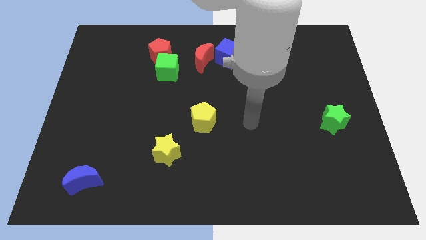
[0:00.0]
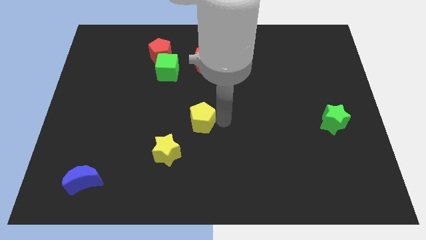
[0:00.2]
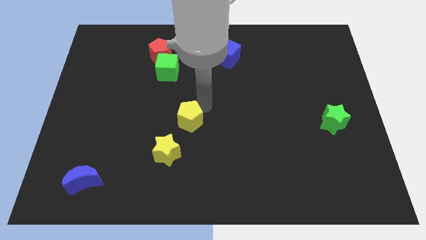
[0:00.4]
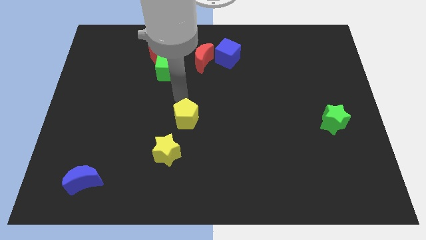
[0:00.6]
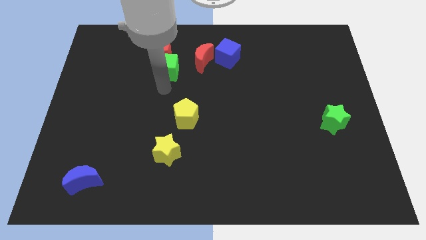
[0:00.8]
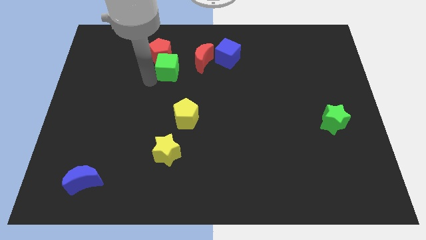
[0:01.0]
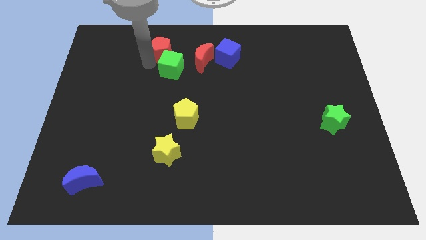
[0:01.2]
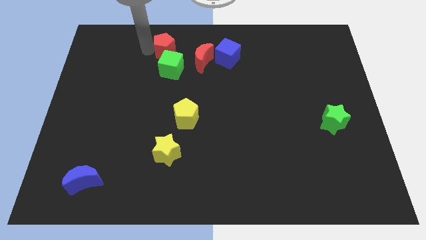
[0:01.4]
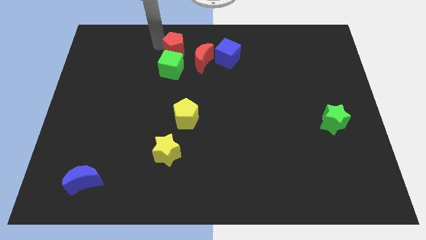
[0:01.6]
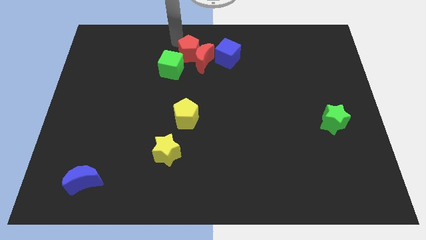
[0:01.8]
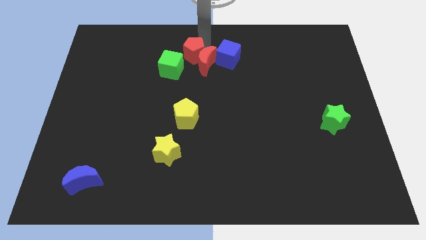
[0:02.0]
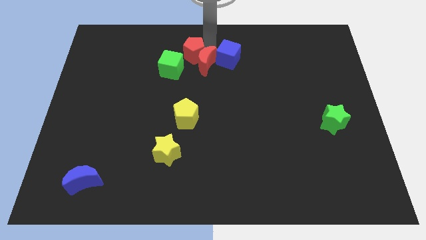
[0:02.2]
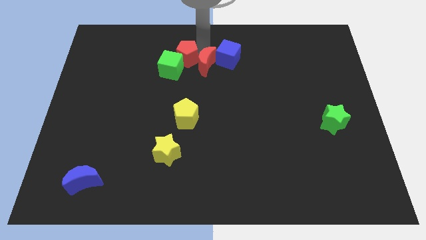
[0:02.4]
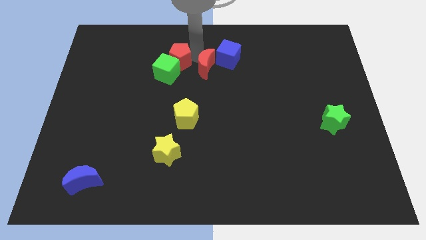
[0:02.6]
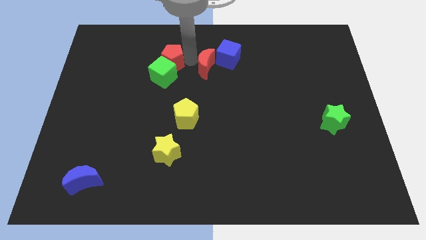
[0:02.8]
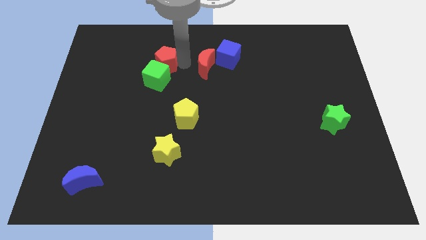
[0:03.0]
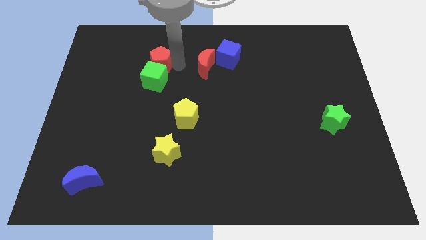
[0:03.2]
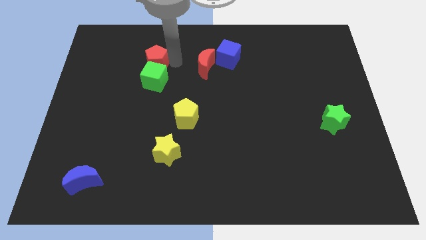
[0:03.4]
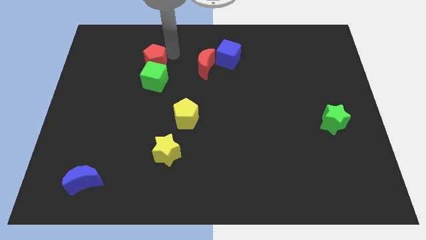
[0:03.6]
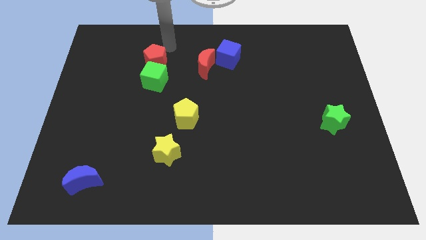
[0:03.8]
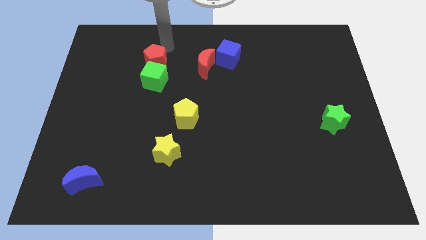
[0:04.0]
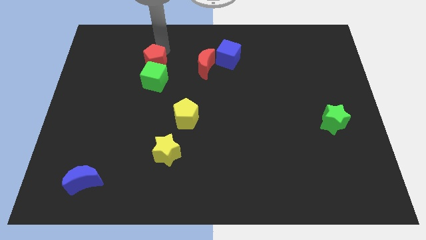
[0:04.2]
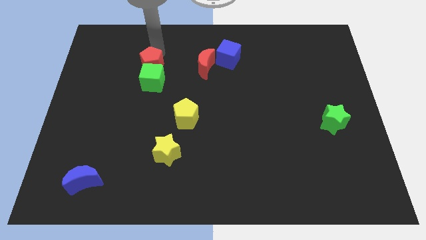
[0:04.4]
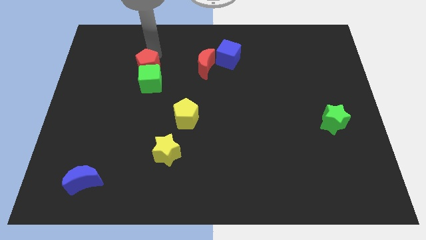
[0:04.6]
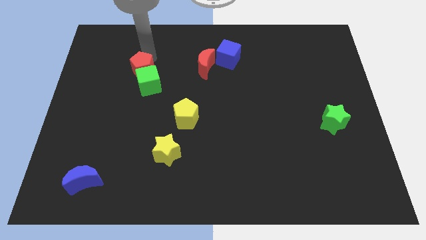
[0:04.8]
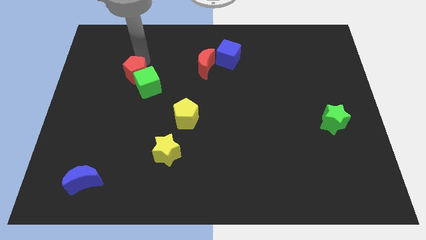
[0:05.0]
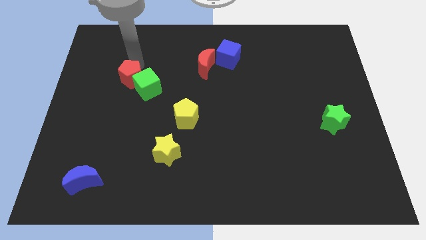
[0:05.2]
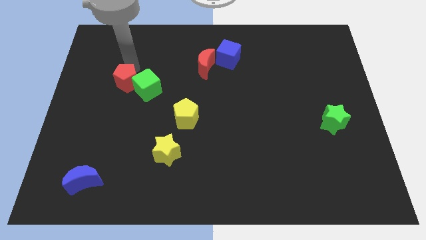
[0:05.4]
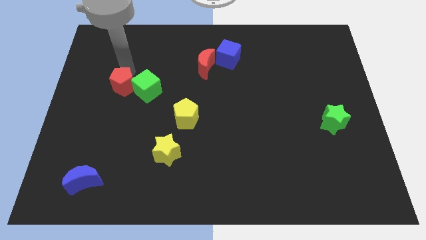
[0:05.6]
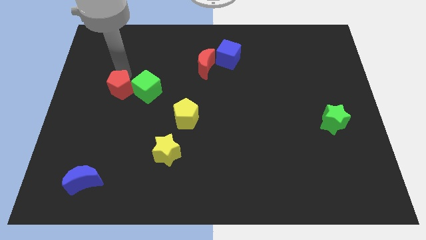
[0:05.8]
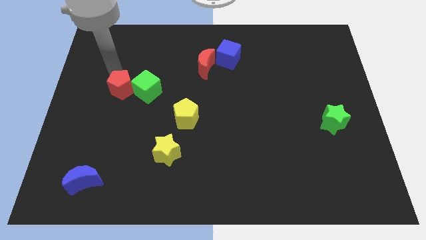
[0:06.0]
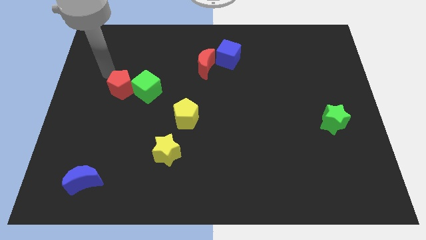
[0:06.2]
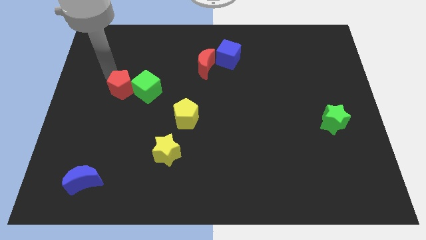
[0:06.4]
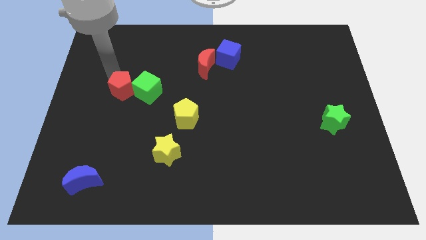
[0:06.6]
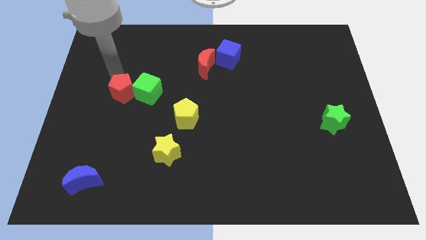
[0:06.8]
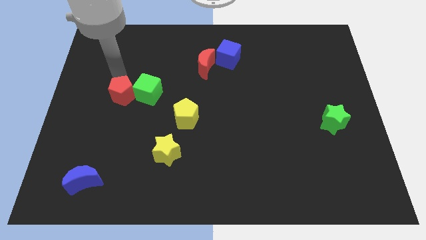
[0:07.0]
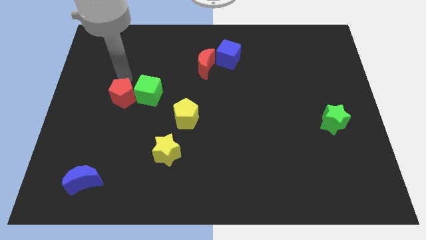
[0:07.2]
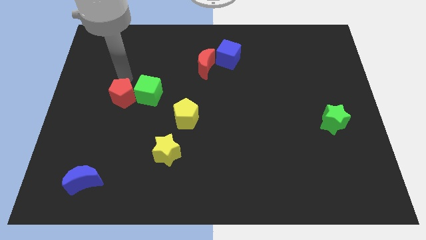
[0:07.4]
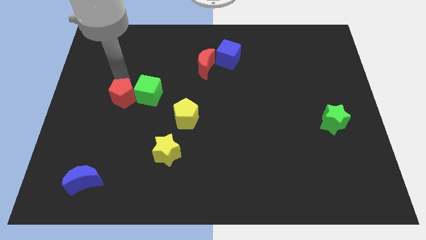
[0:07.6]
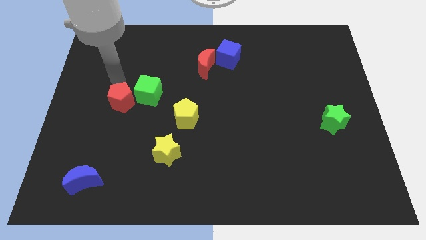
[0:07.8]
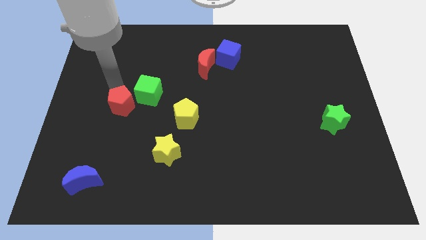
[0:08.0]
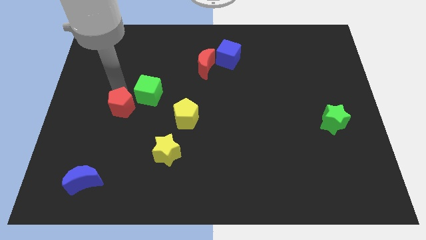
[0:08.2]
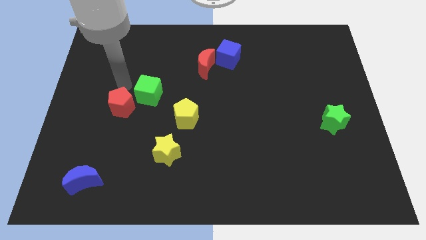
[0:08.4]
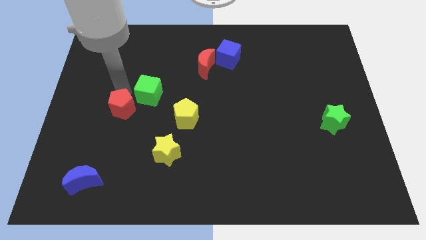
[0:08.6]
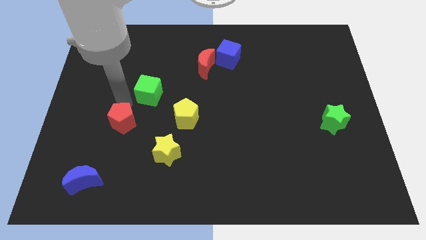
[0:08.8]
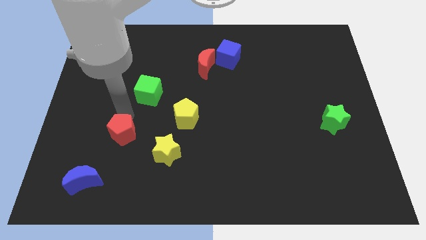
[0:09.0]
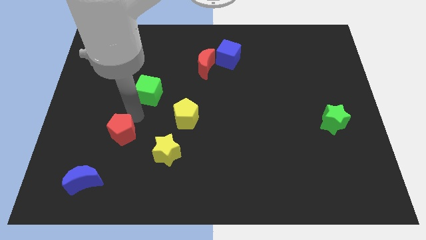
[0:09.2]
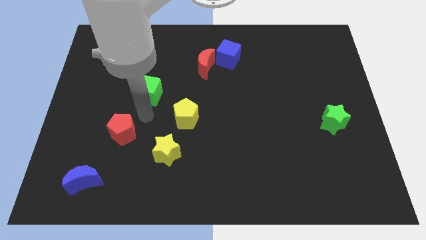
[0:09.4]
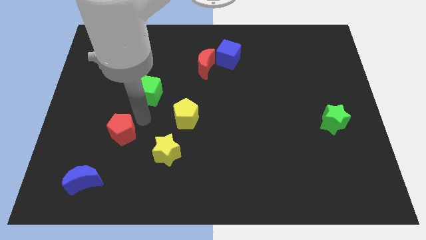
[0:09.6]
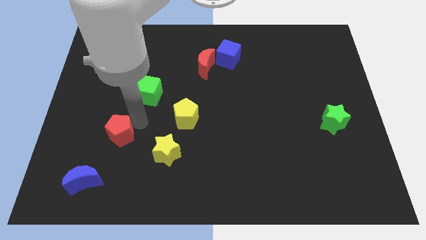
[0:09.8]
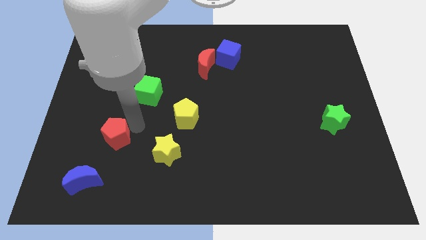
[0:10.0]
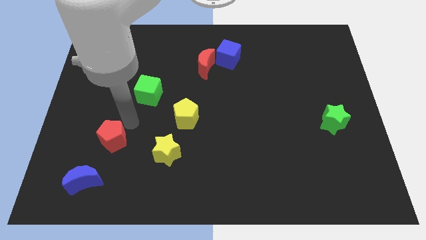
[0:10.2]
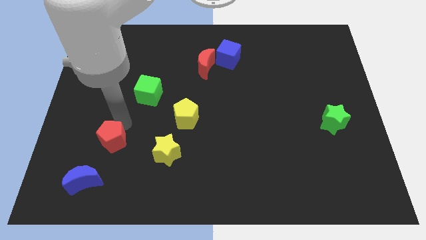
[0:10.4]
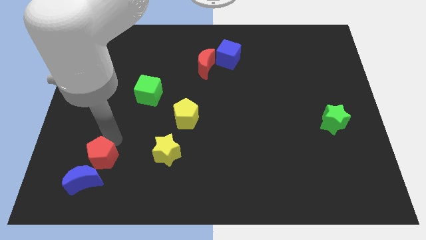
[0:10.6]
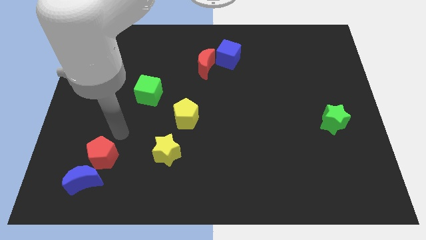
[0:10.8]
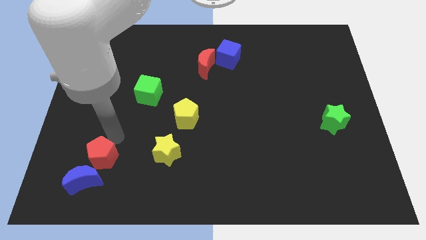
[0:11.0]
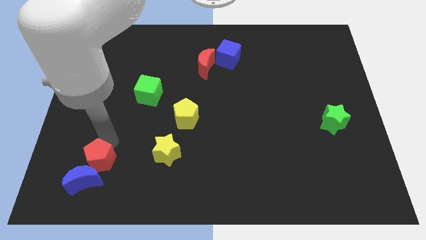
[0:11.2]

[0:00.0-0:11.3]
move the red pentagon to the blue moon

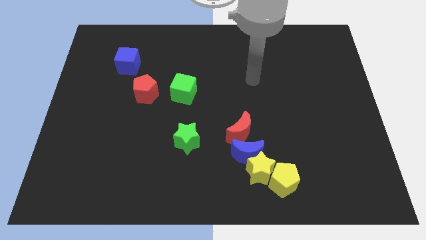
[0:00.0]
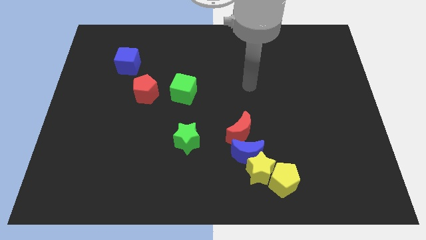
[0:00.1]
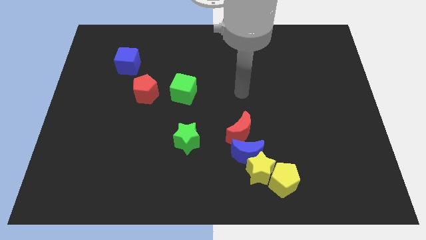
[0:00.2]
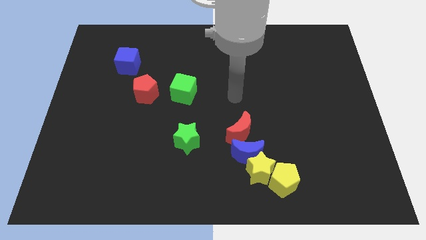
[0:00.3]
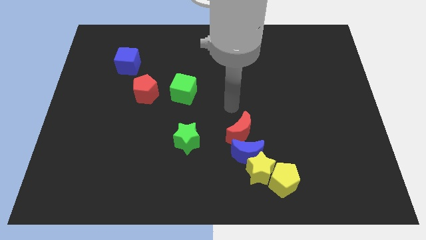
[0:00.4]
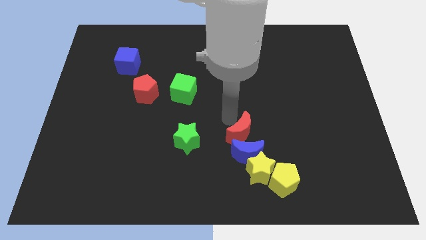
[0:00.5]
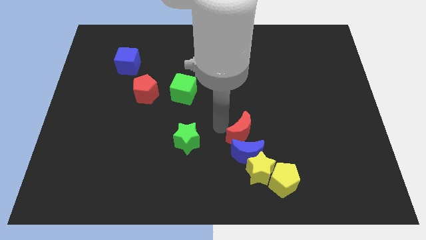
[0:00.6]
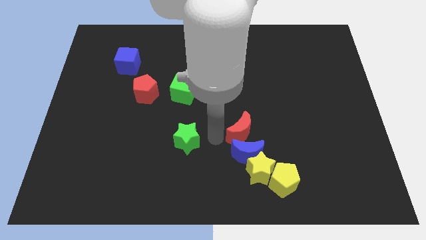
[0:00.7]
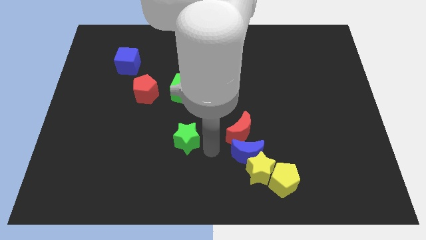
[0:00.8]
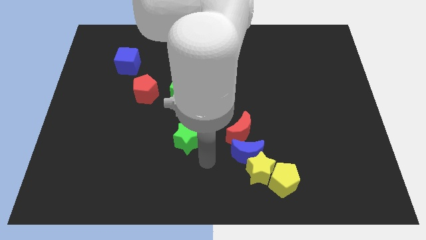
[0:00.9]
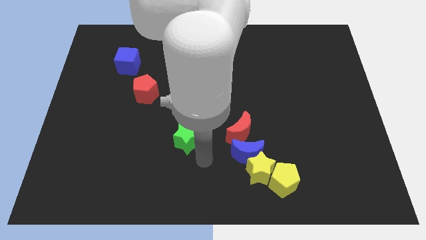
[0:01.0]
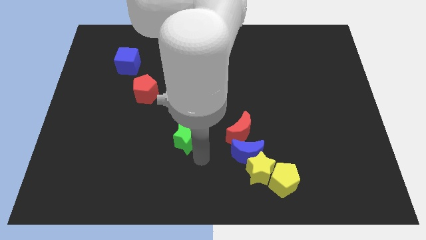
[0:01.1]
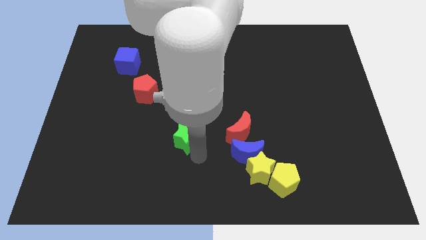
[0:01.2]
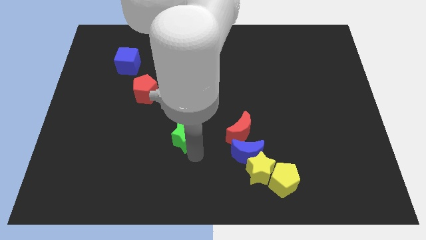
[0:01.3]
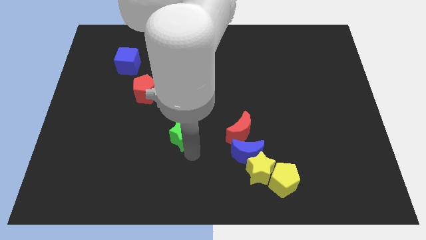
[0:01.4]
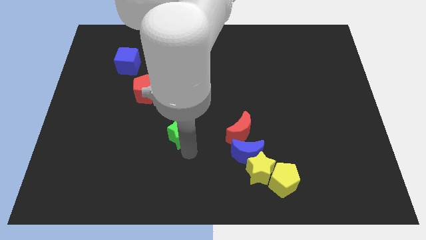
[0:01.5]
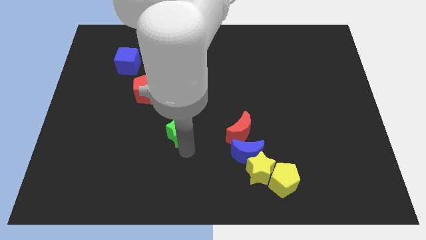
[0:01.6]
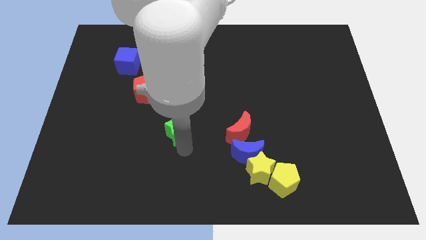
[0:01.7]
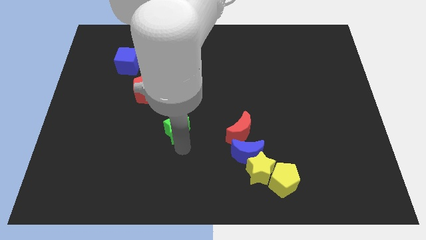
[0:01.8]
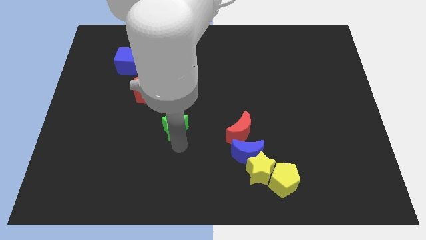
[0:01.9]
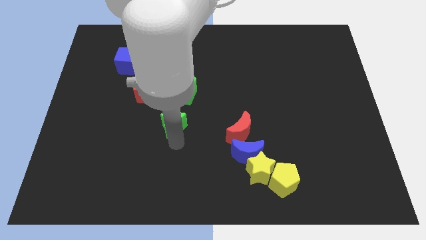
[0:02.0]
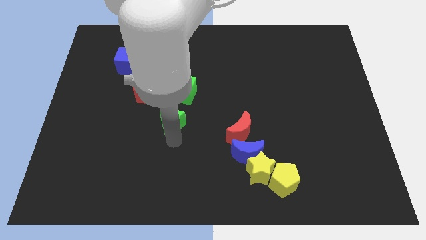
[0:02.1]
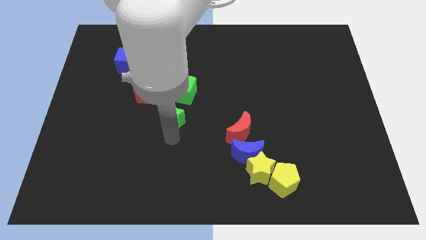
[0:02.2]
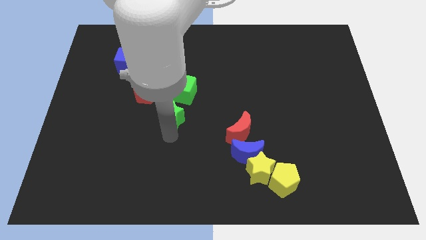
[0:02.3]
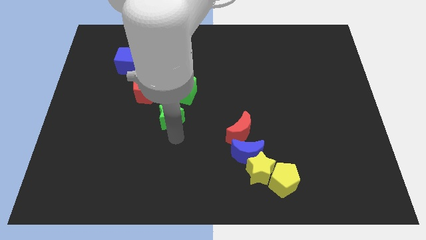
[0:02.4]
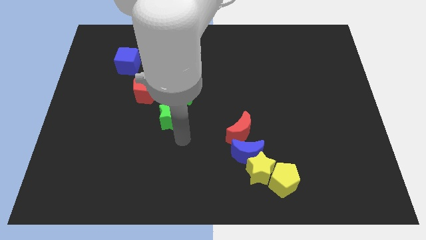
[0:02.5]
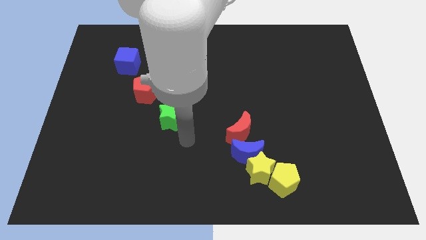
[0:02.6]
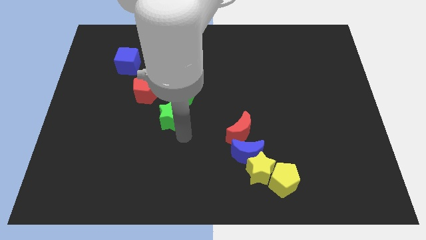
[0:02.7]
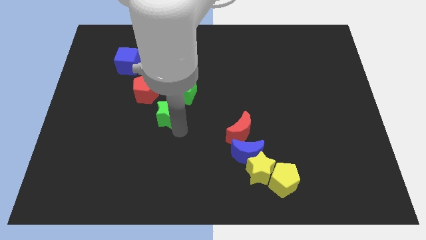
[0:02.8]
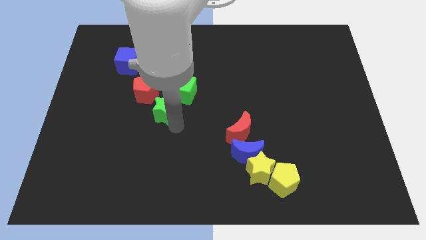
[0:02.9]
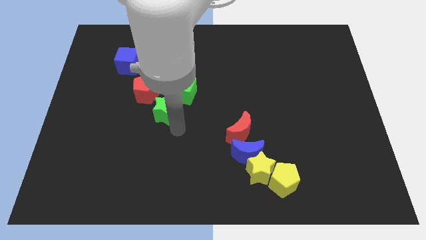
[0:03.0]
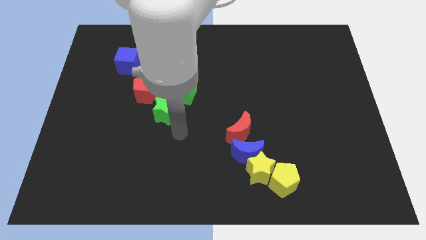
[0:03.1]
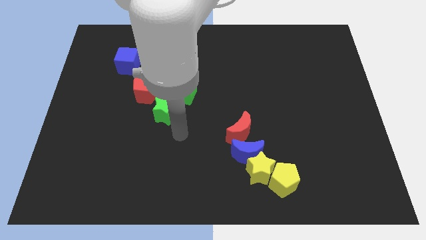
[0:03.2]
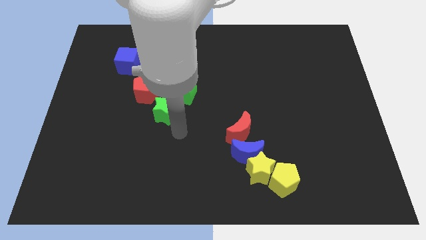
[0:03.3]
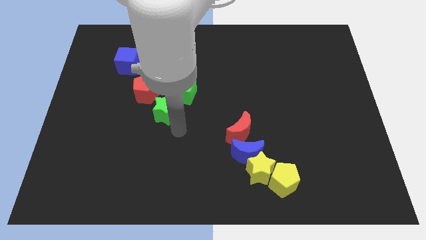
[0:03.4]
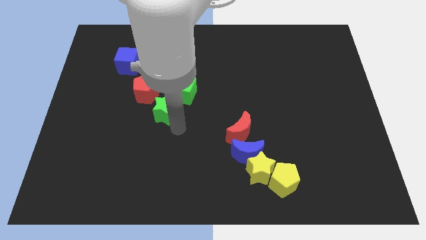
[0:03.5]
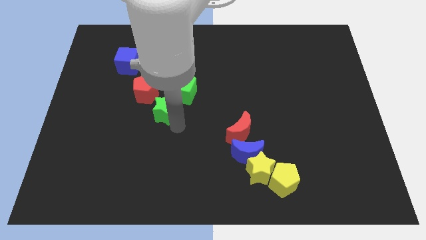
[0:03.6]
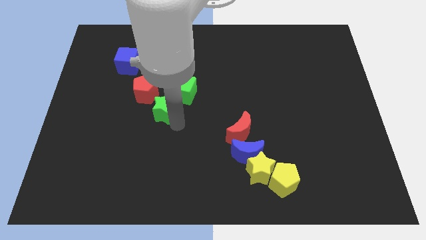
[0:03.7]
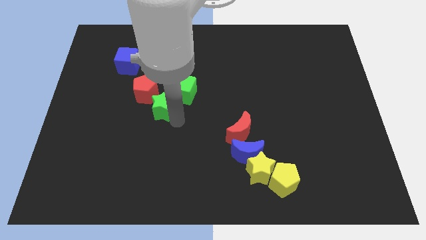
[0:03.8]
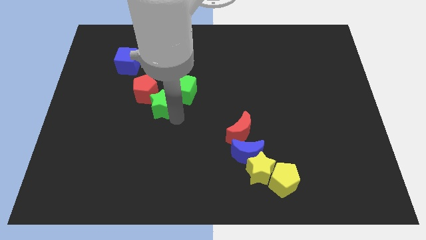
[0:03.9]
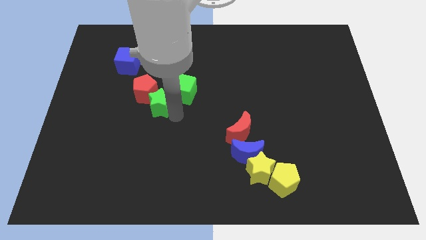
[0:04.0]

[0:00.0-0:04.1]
slide the green star next to the red pentagon
